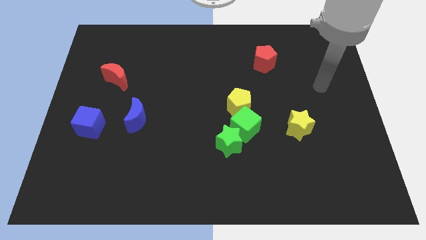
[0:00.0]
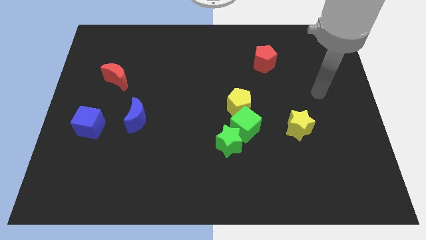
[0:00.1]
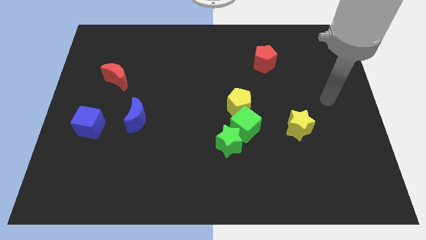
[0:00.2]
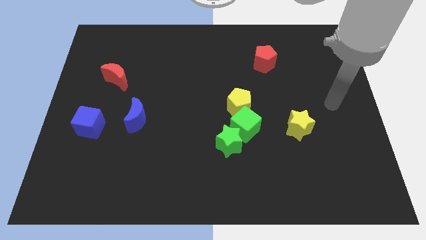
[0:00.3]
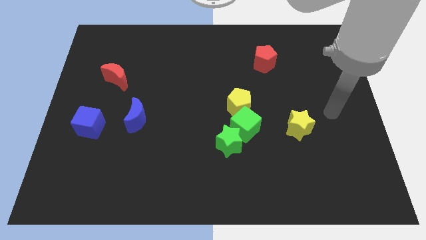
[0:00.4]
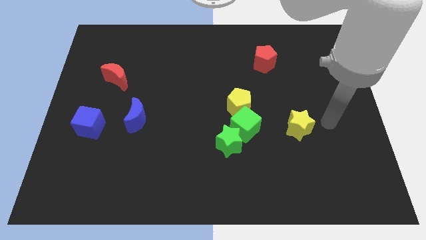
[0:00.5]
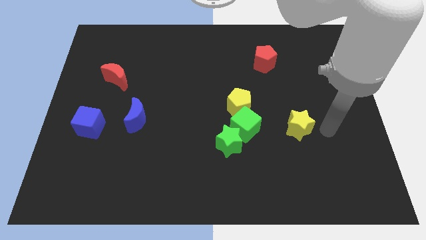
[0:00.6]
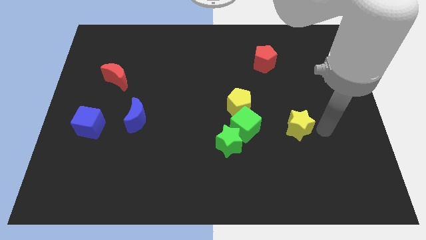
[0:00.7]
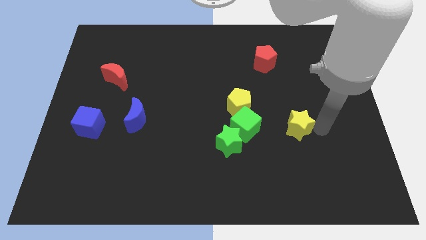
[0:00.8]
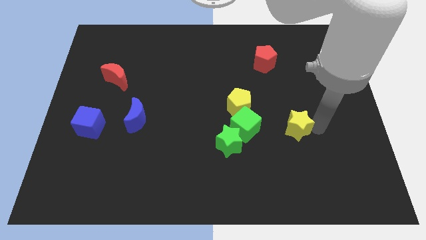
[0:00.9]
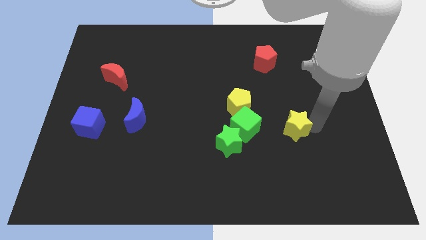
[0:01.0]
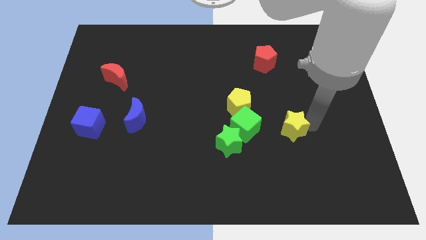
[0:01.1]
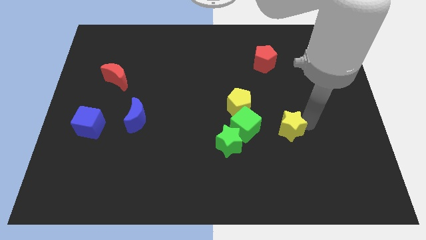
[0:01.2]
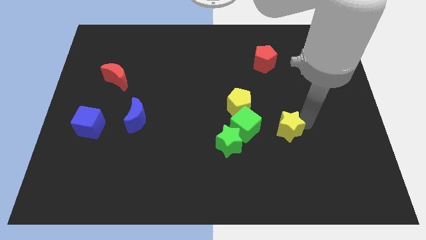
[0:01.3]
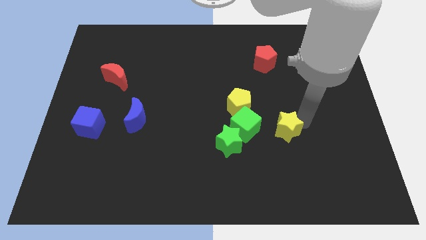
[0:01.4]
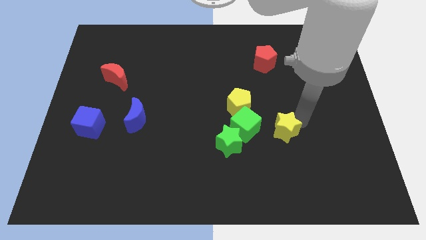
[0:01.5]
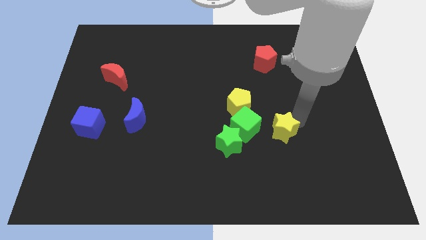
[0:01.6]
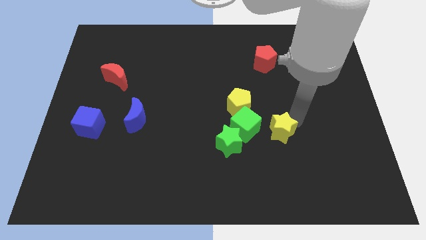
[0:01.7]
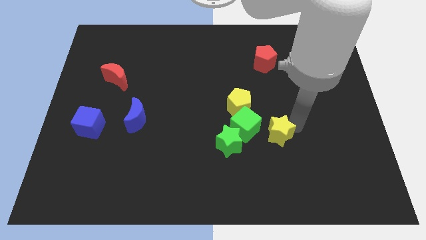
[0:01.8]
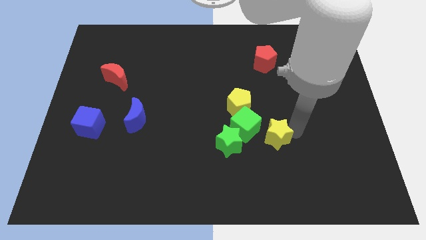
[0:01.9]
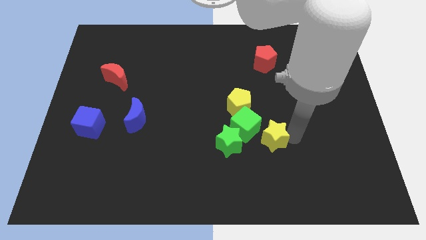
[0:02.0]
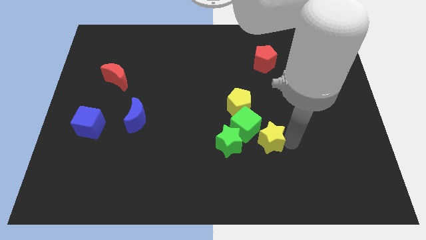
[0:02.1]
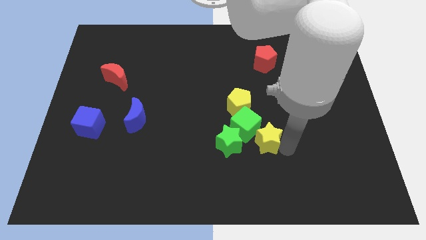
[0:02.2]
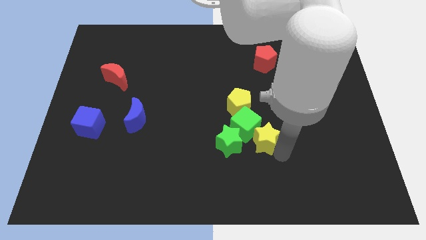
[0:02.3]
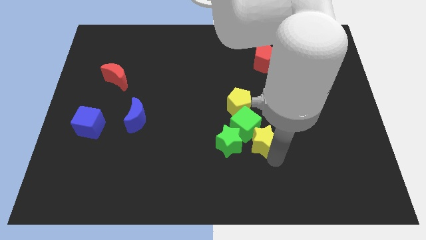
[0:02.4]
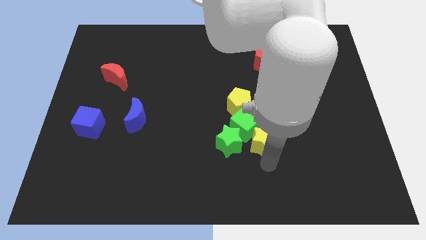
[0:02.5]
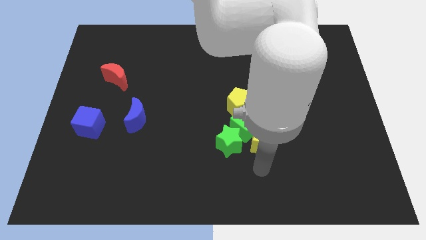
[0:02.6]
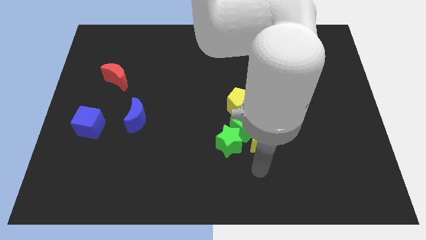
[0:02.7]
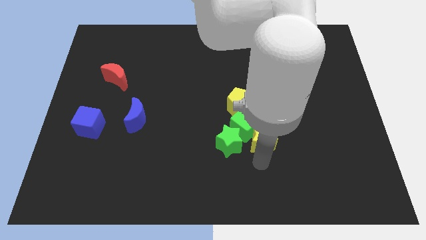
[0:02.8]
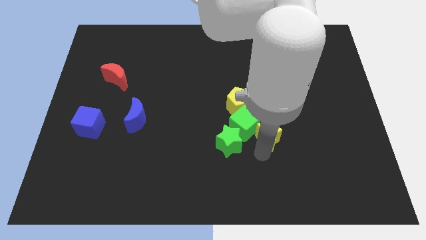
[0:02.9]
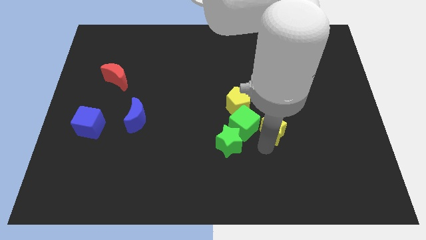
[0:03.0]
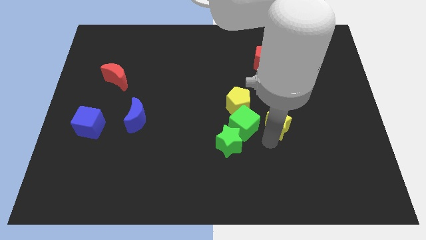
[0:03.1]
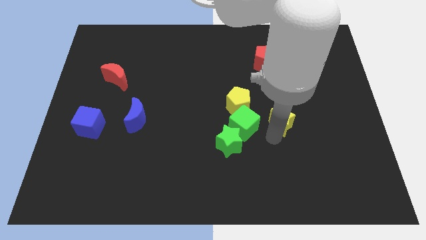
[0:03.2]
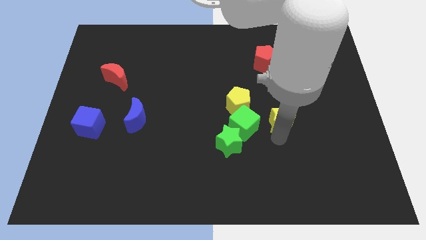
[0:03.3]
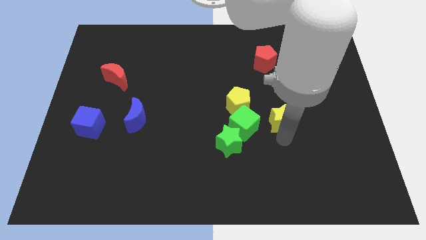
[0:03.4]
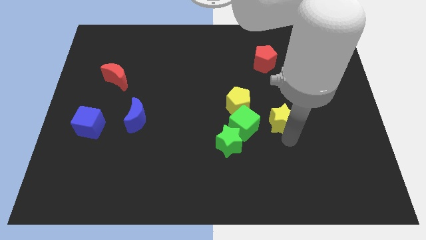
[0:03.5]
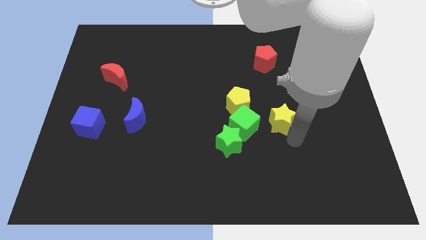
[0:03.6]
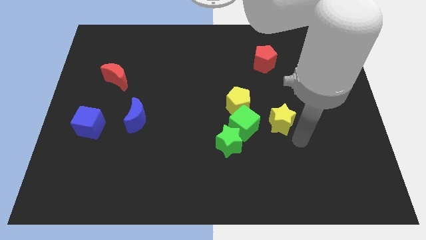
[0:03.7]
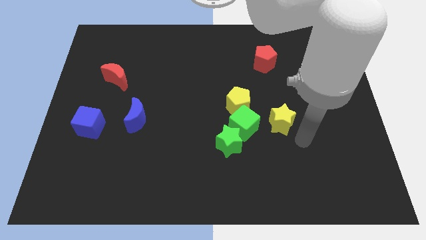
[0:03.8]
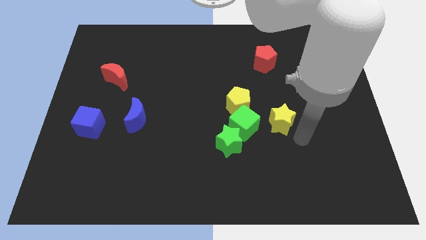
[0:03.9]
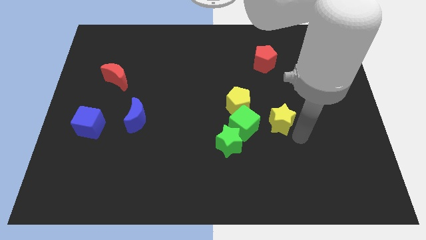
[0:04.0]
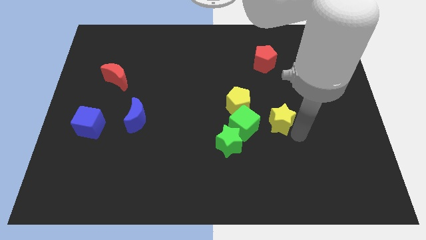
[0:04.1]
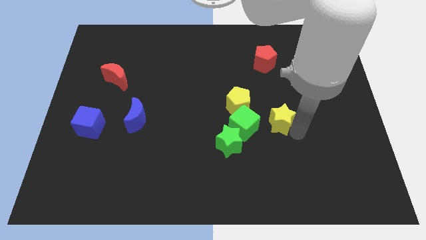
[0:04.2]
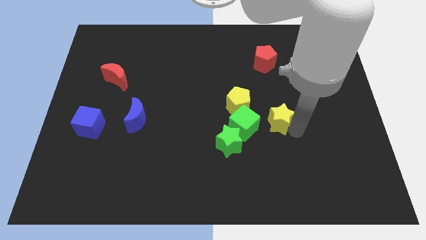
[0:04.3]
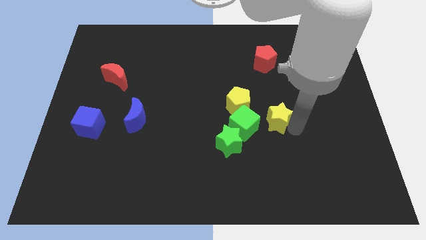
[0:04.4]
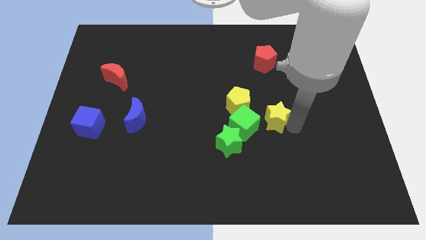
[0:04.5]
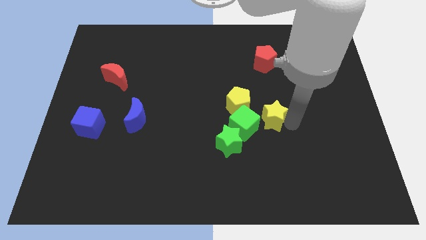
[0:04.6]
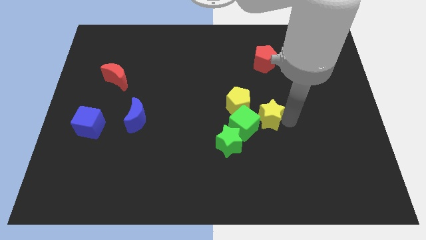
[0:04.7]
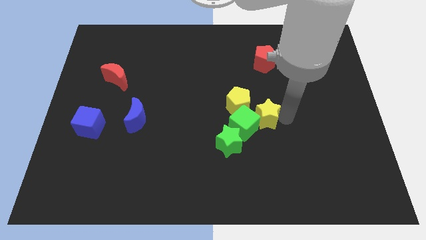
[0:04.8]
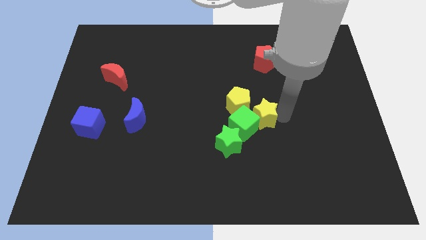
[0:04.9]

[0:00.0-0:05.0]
slightly slide the yellow star upwards and then left

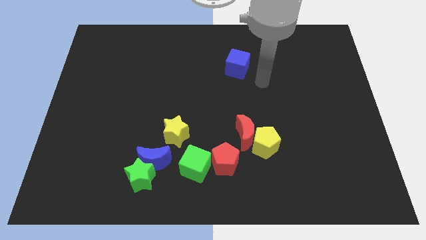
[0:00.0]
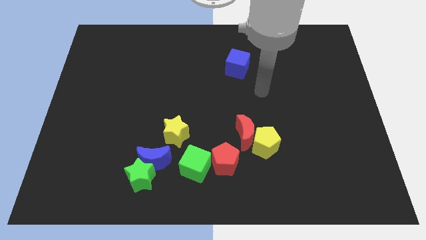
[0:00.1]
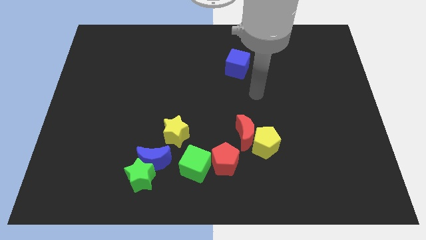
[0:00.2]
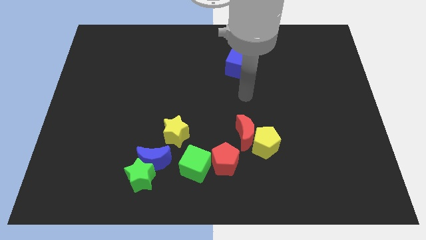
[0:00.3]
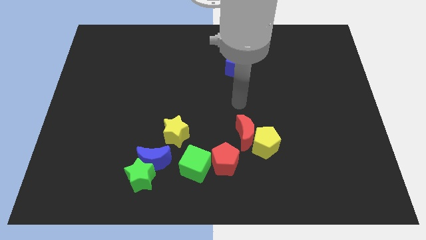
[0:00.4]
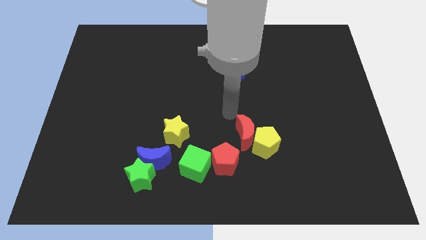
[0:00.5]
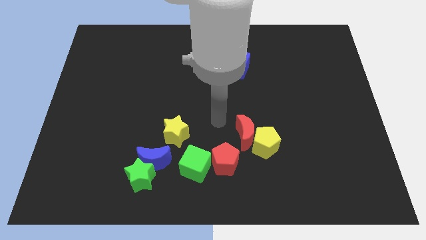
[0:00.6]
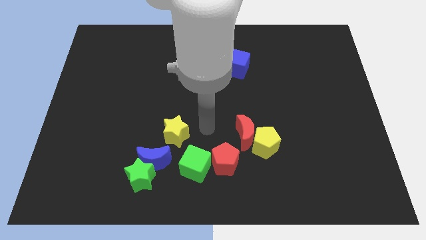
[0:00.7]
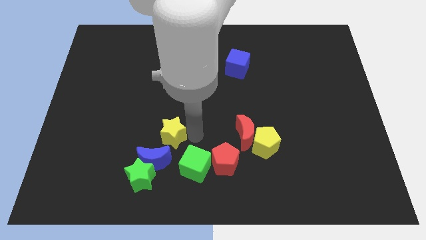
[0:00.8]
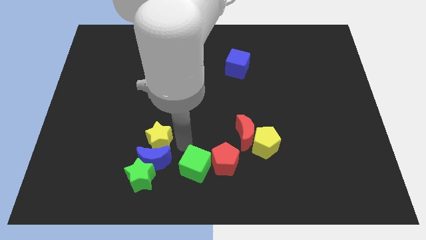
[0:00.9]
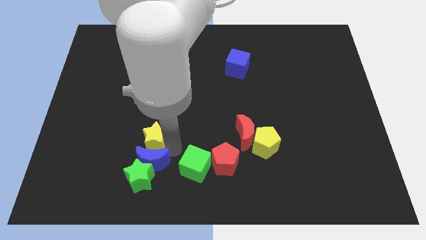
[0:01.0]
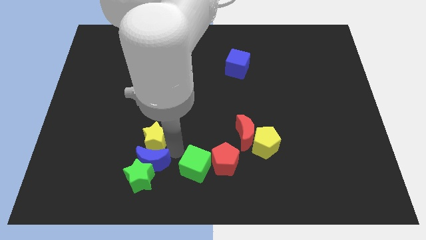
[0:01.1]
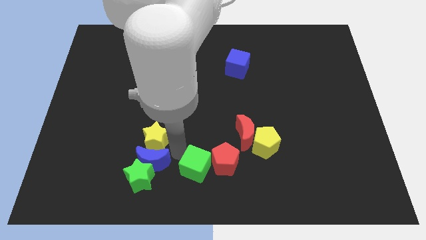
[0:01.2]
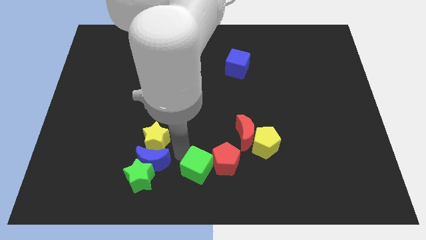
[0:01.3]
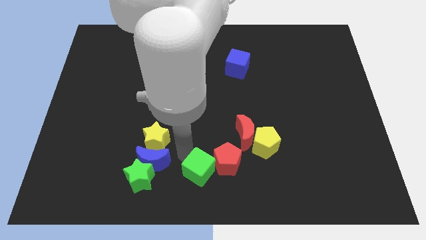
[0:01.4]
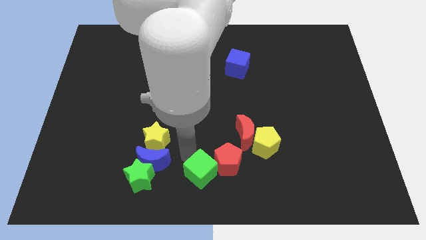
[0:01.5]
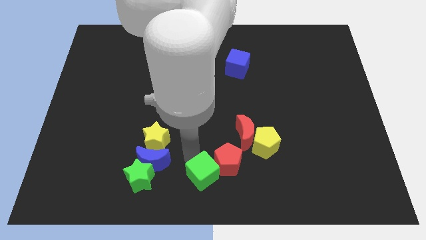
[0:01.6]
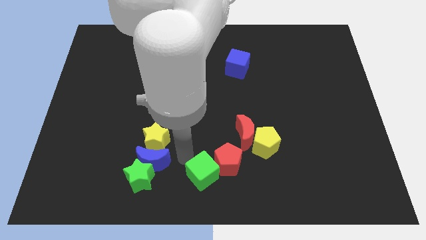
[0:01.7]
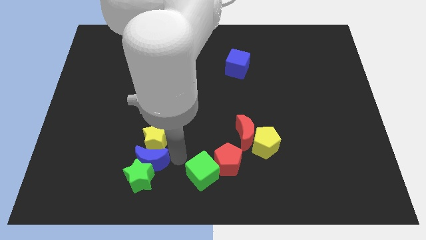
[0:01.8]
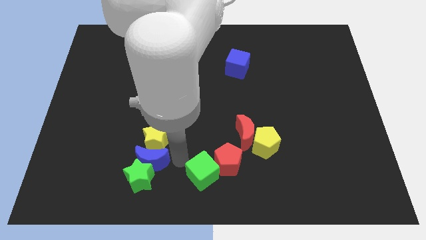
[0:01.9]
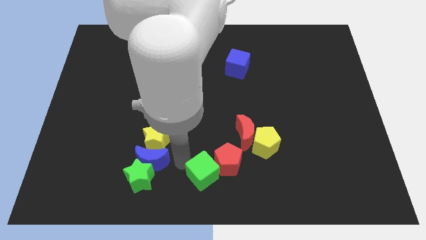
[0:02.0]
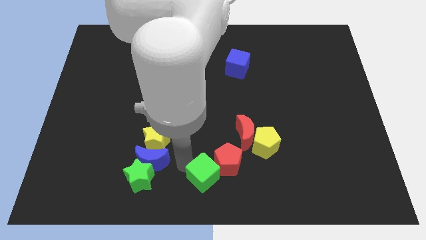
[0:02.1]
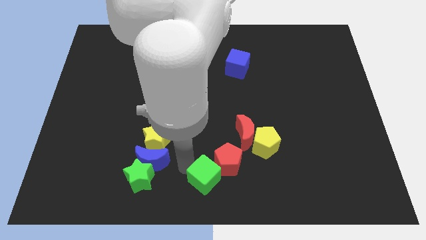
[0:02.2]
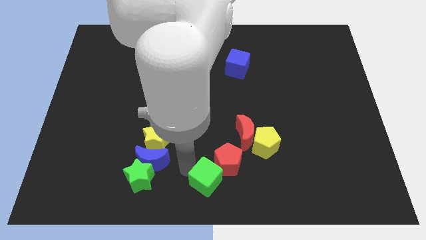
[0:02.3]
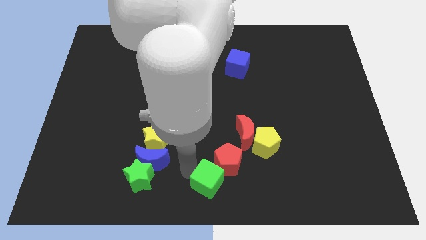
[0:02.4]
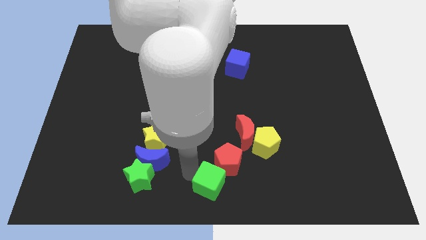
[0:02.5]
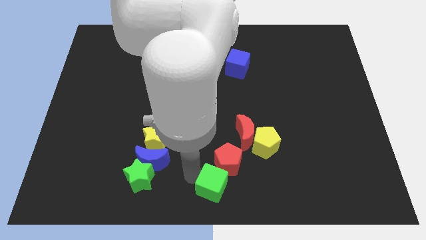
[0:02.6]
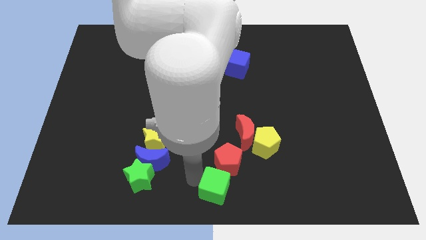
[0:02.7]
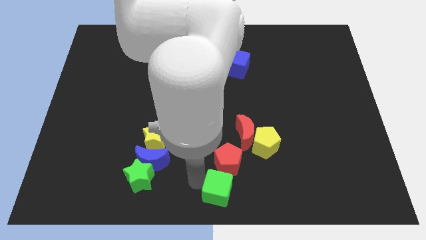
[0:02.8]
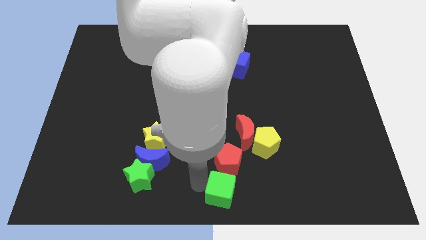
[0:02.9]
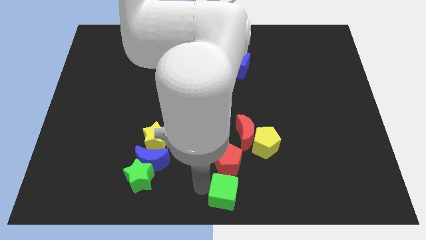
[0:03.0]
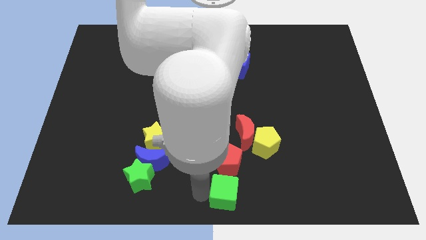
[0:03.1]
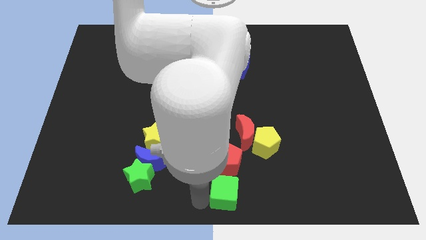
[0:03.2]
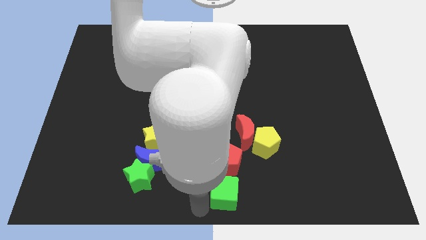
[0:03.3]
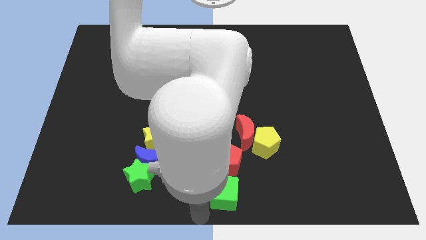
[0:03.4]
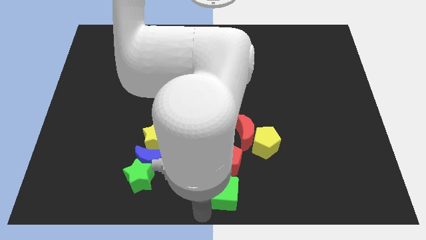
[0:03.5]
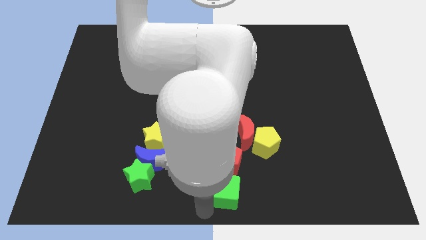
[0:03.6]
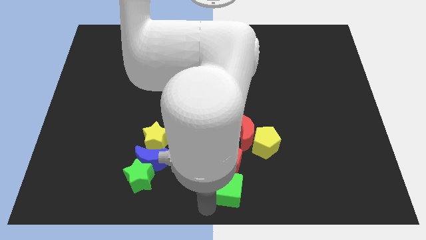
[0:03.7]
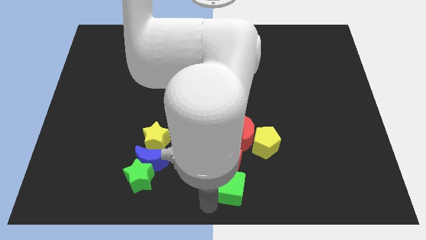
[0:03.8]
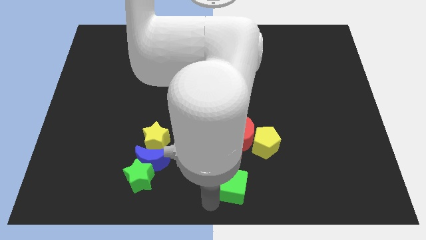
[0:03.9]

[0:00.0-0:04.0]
push the green cube slightly right
